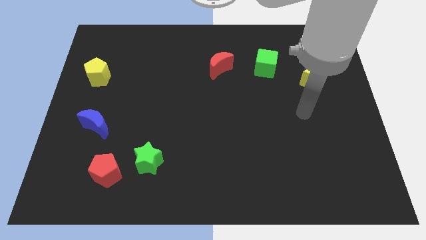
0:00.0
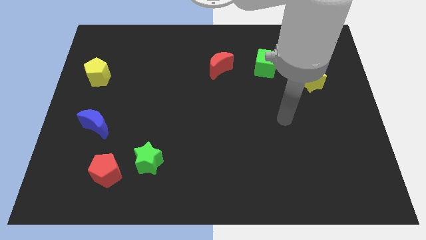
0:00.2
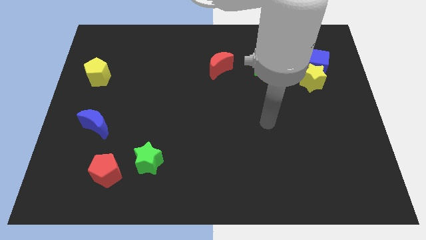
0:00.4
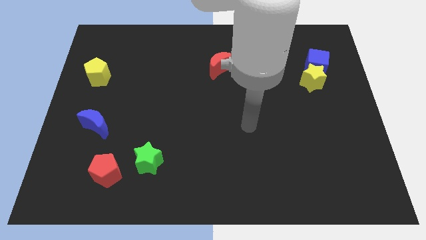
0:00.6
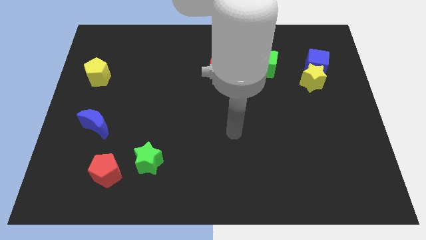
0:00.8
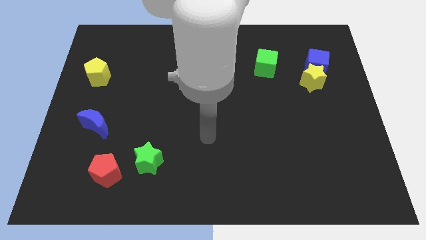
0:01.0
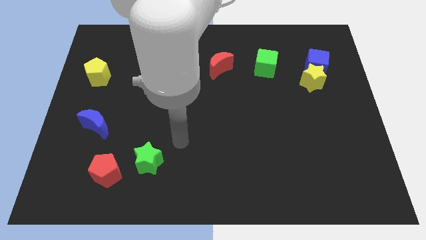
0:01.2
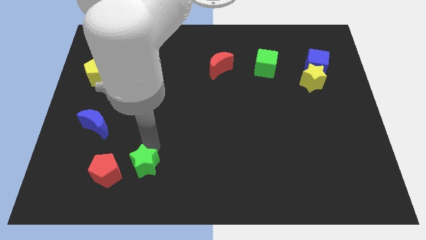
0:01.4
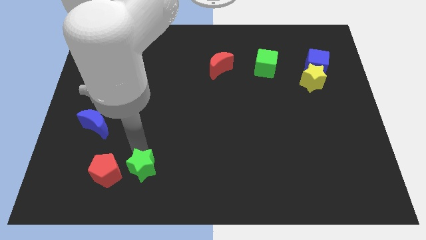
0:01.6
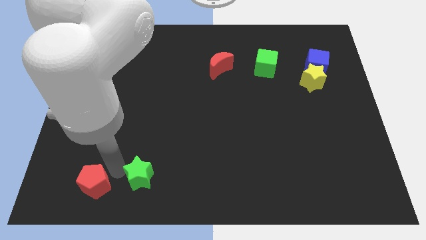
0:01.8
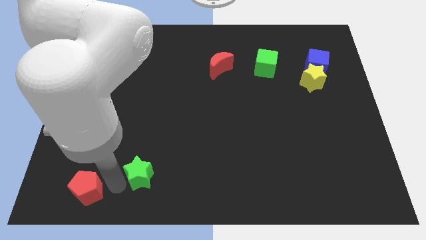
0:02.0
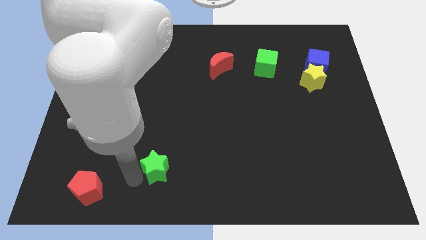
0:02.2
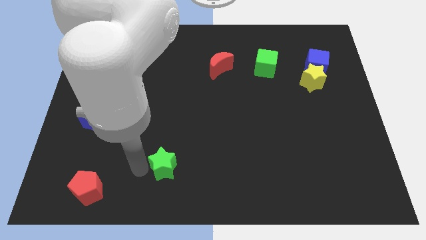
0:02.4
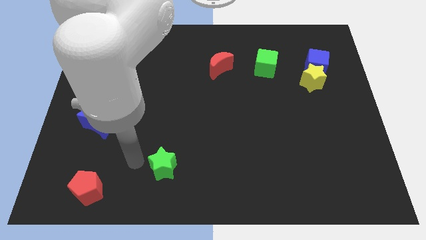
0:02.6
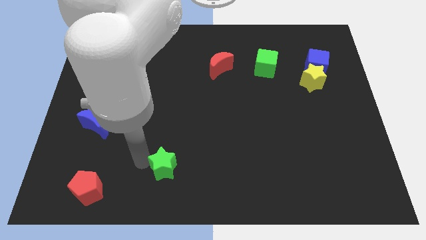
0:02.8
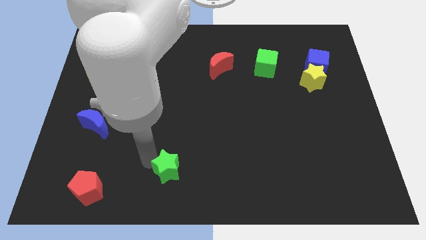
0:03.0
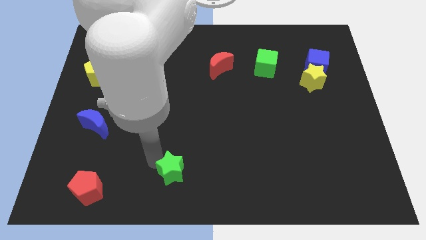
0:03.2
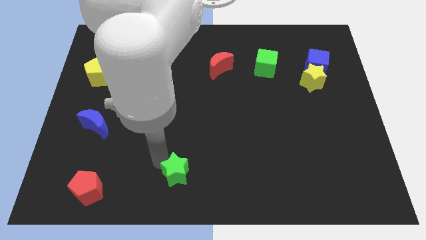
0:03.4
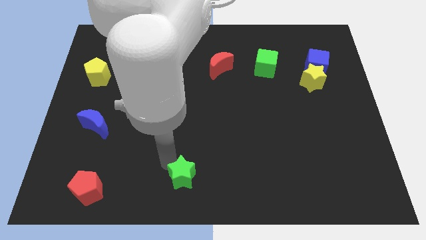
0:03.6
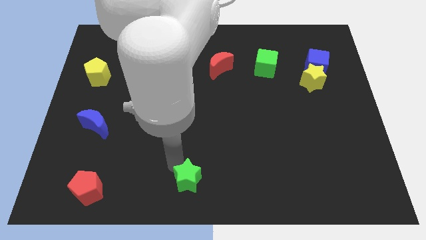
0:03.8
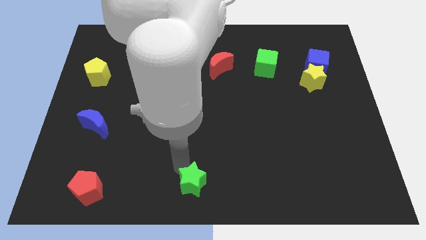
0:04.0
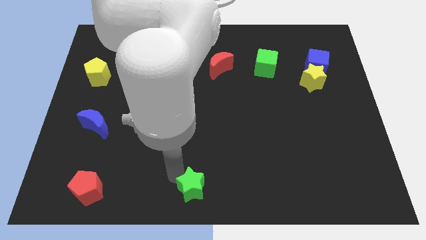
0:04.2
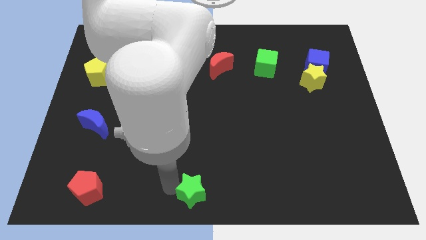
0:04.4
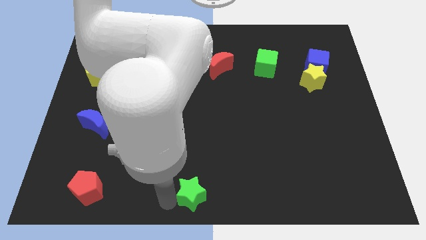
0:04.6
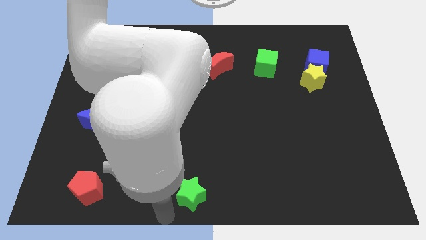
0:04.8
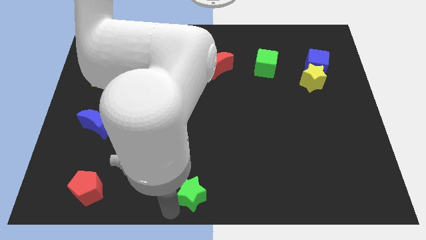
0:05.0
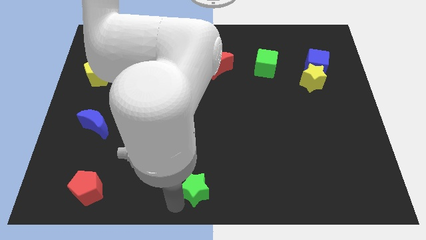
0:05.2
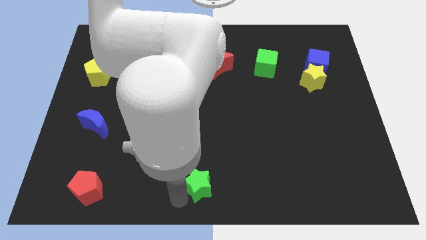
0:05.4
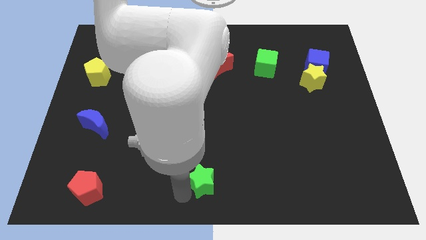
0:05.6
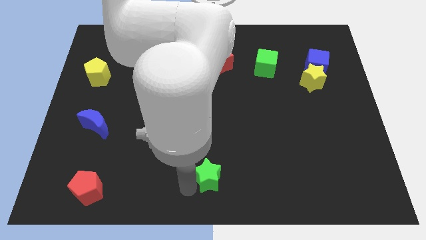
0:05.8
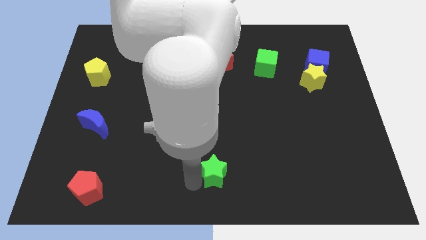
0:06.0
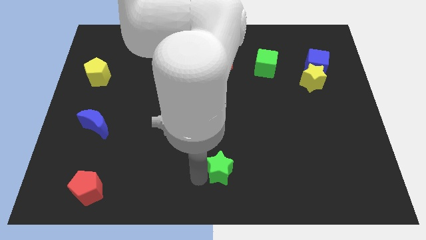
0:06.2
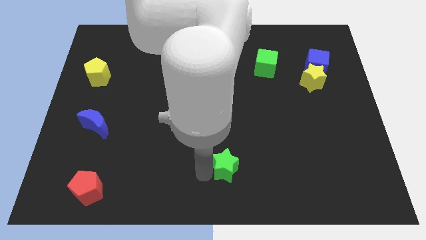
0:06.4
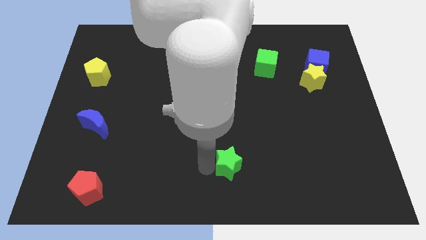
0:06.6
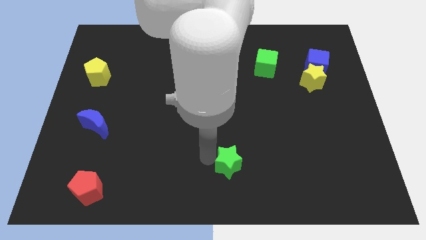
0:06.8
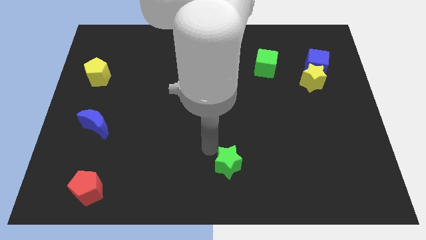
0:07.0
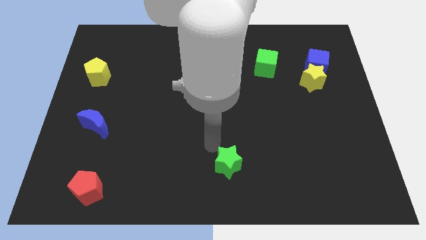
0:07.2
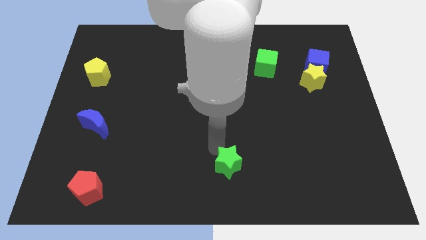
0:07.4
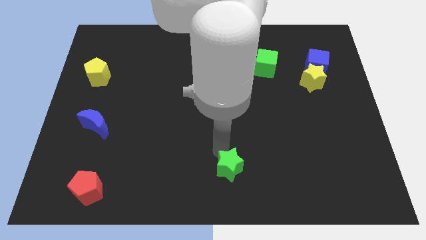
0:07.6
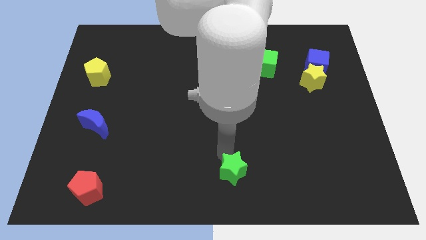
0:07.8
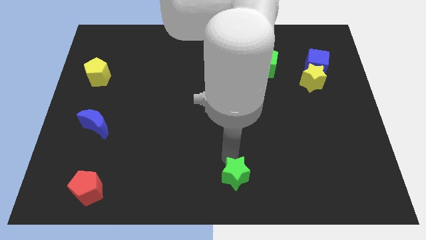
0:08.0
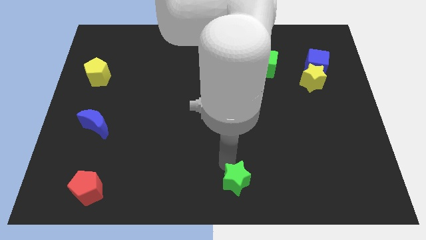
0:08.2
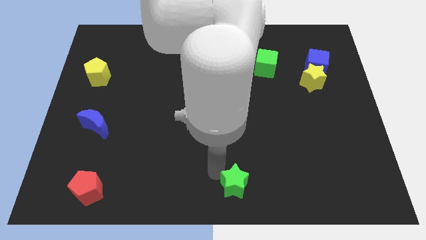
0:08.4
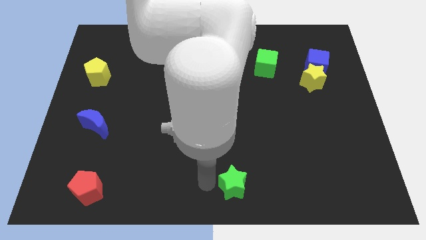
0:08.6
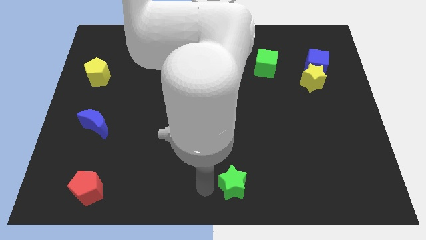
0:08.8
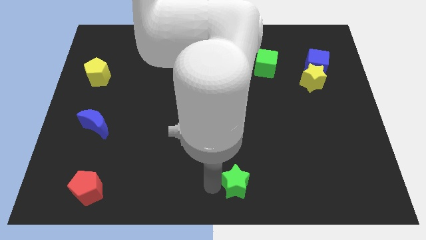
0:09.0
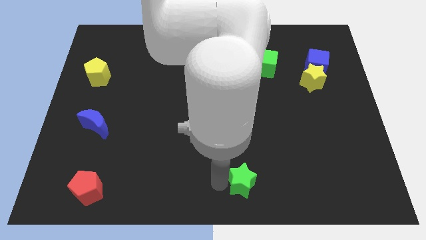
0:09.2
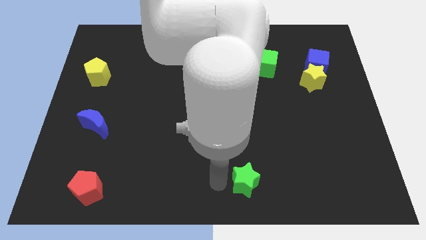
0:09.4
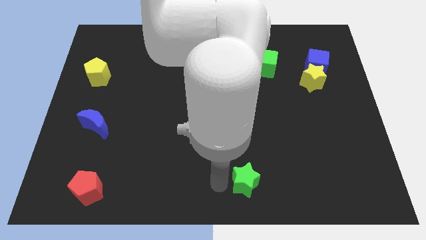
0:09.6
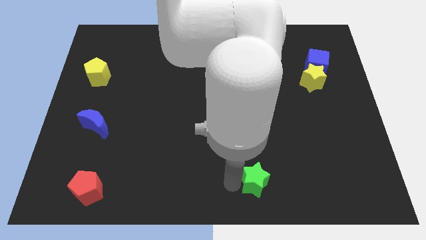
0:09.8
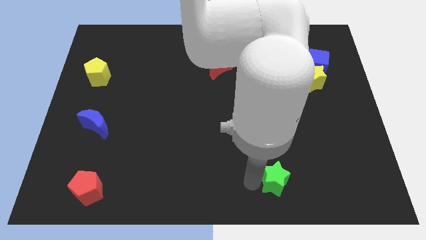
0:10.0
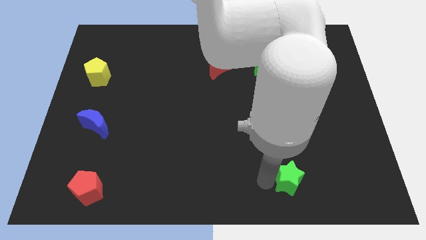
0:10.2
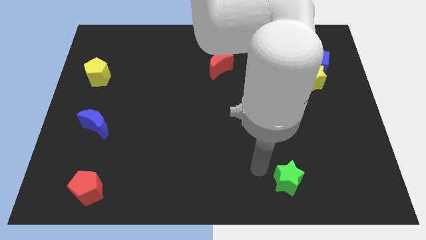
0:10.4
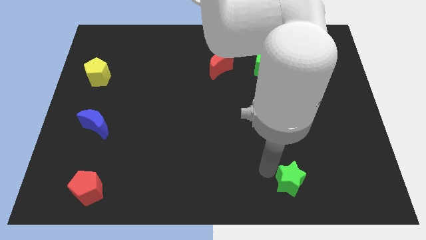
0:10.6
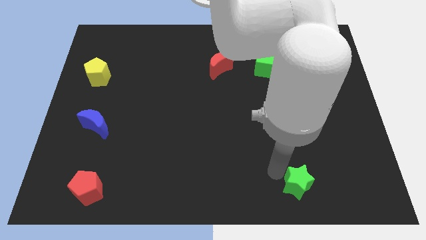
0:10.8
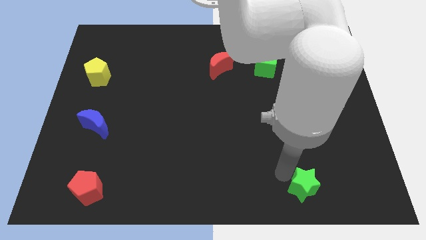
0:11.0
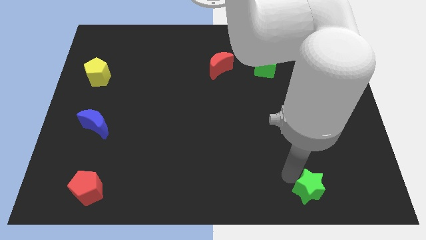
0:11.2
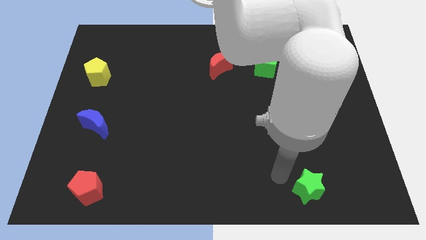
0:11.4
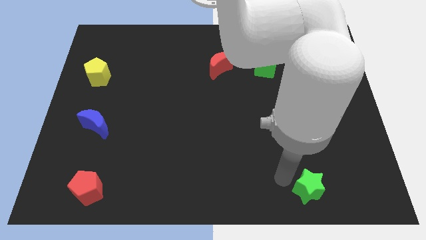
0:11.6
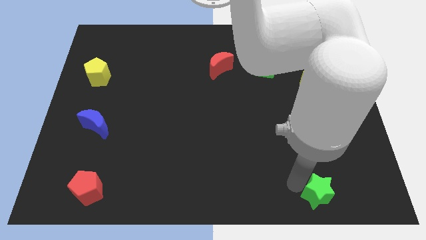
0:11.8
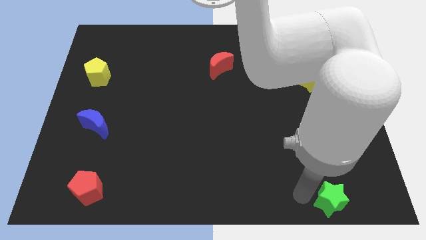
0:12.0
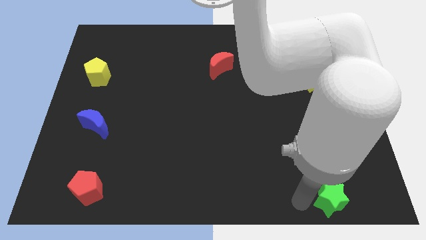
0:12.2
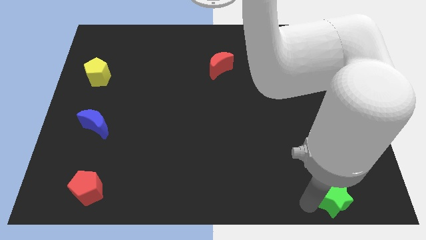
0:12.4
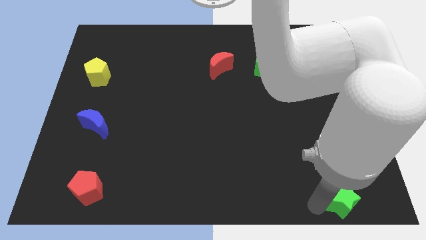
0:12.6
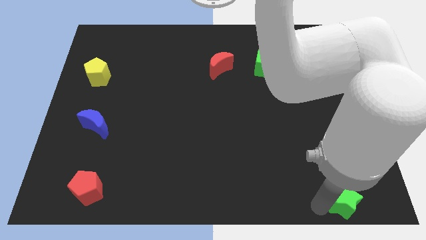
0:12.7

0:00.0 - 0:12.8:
put the green star to the bottom right of the board
